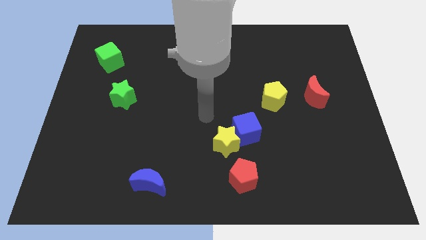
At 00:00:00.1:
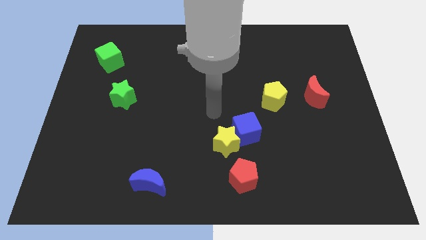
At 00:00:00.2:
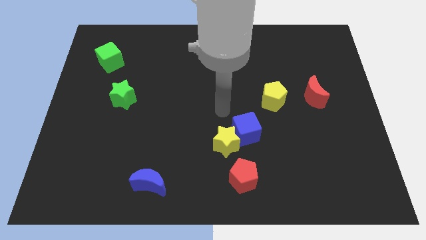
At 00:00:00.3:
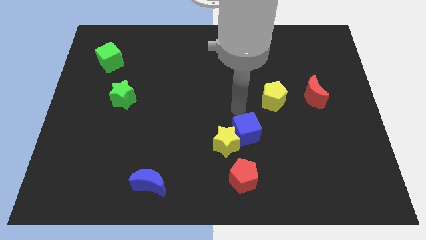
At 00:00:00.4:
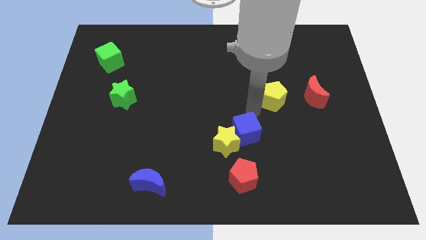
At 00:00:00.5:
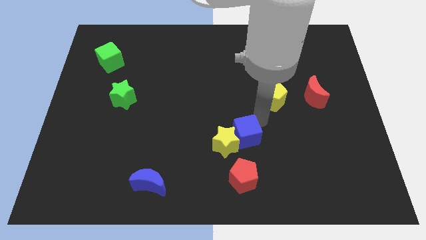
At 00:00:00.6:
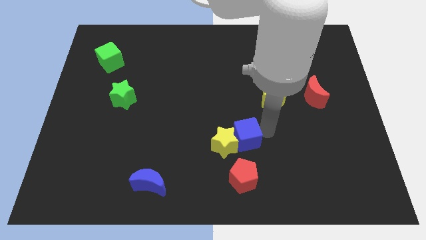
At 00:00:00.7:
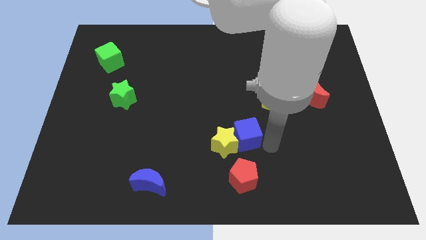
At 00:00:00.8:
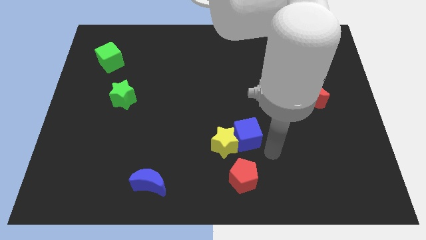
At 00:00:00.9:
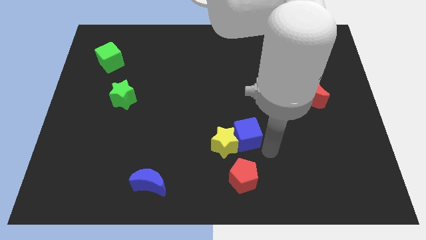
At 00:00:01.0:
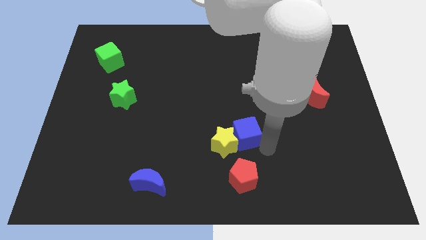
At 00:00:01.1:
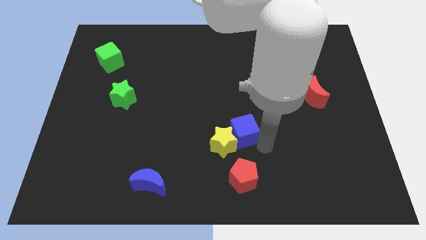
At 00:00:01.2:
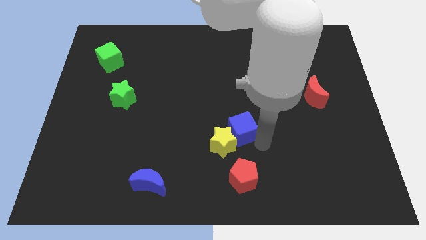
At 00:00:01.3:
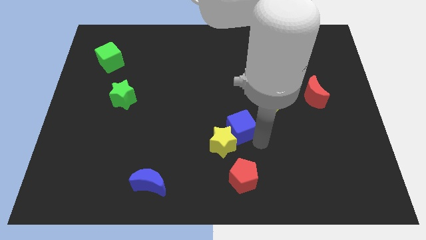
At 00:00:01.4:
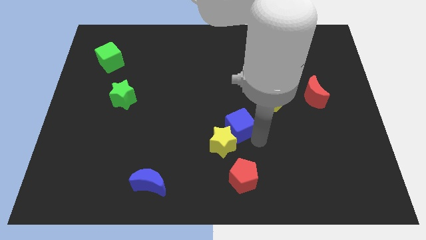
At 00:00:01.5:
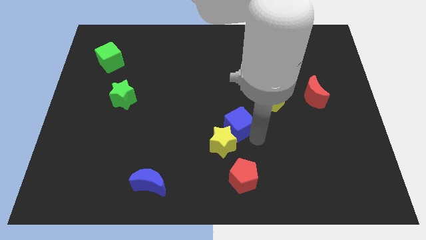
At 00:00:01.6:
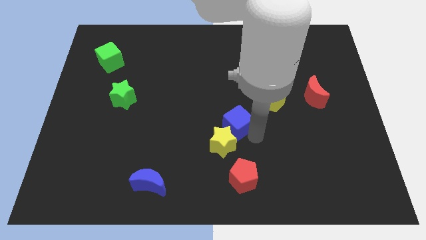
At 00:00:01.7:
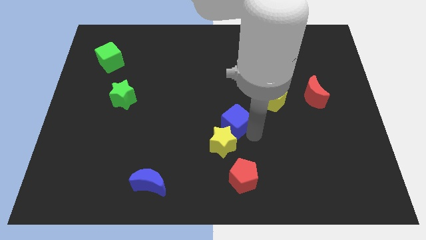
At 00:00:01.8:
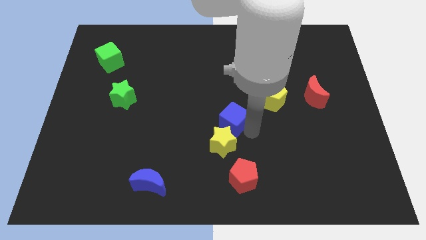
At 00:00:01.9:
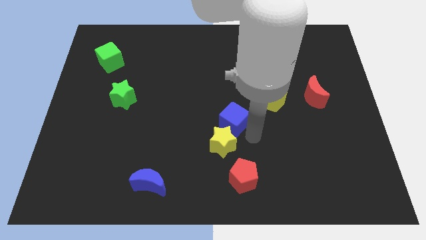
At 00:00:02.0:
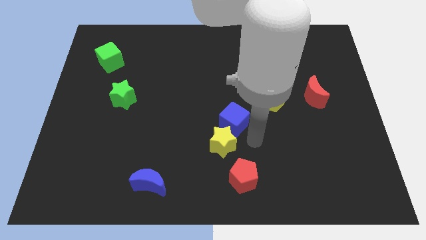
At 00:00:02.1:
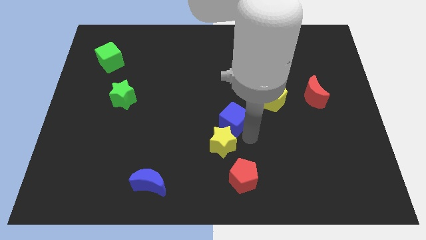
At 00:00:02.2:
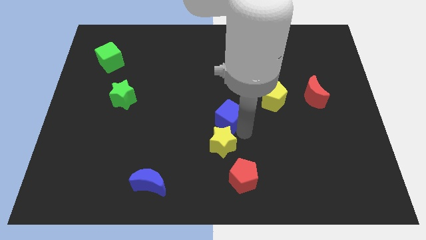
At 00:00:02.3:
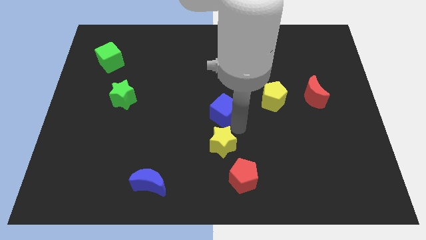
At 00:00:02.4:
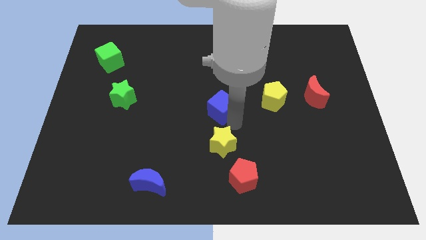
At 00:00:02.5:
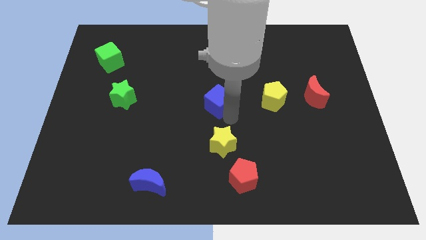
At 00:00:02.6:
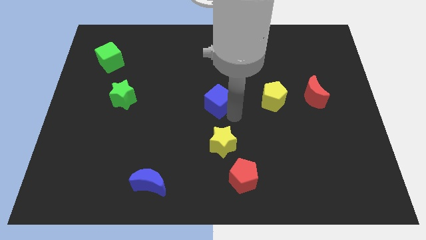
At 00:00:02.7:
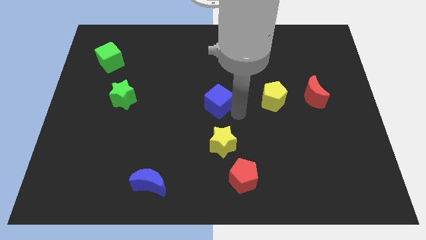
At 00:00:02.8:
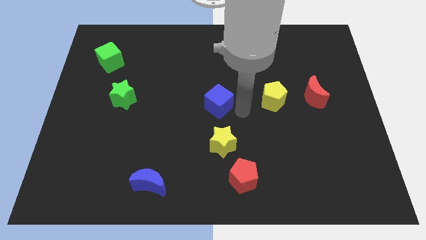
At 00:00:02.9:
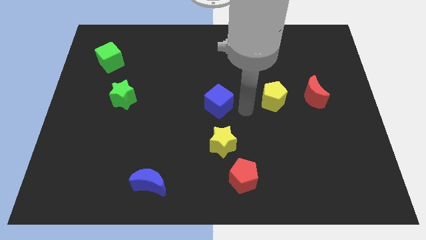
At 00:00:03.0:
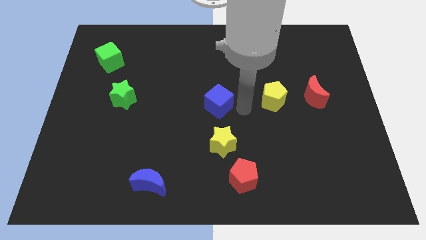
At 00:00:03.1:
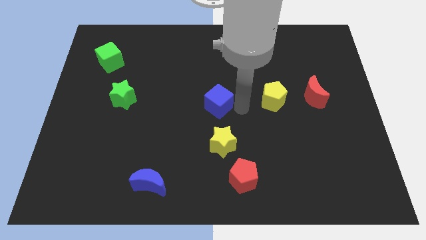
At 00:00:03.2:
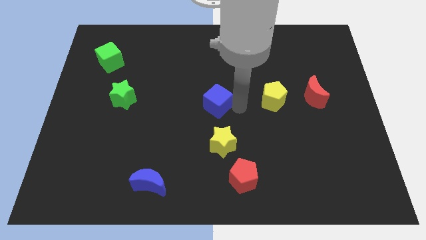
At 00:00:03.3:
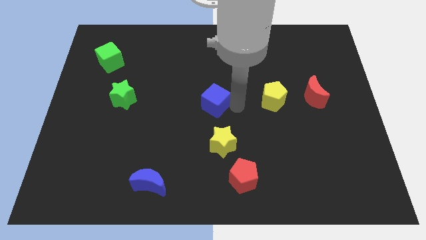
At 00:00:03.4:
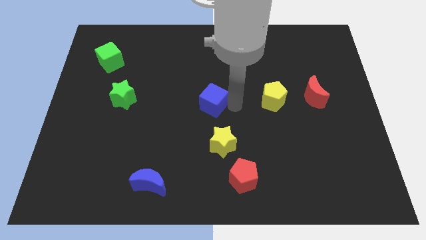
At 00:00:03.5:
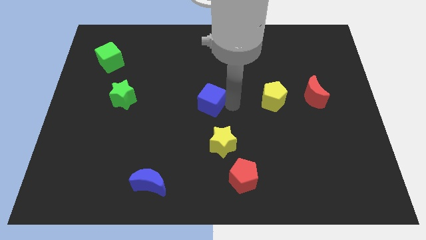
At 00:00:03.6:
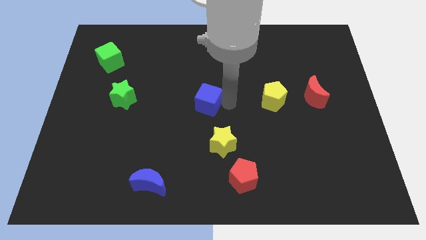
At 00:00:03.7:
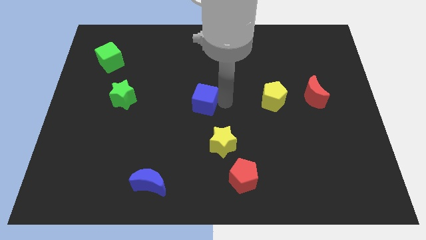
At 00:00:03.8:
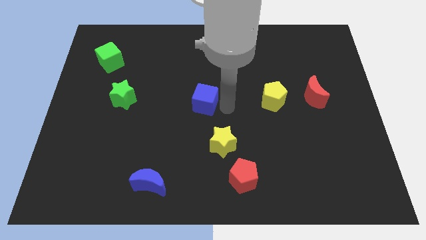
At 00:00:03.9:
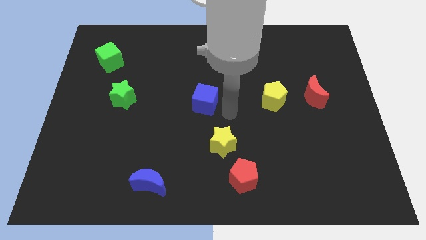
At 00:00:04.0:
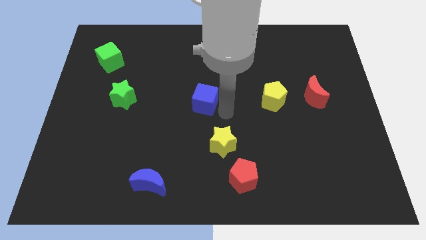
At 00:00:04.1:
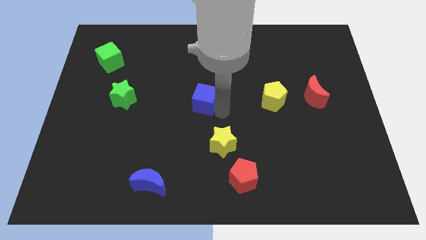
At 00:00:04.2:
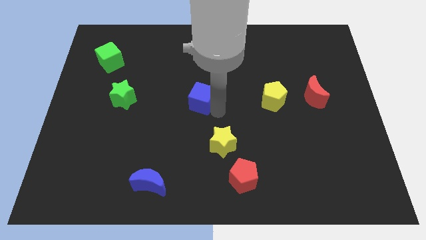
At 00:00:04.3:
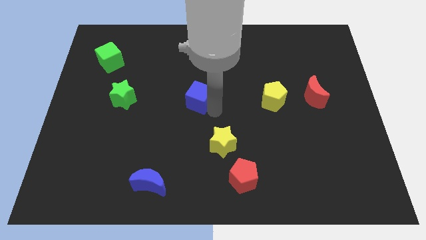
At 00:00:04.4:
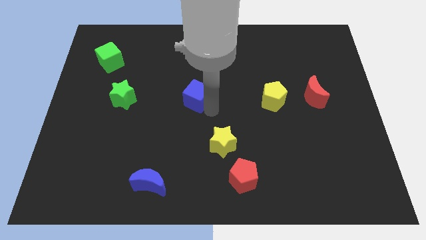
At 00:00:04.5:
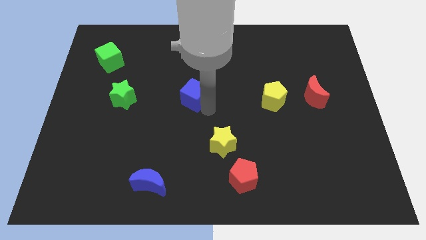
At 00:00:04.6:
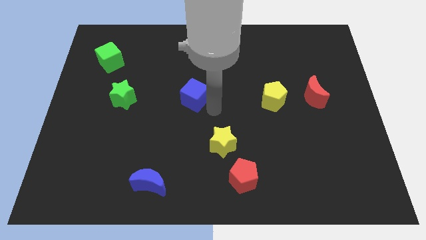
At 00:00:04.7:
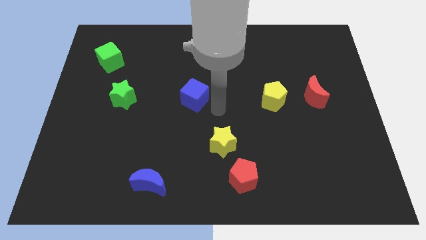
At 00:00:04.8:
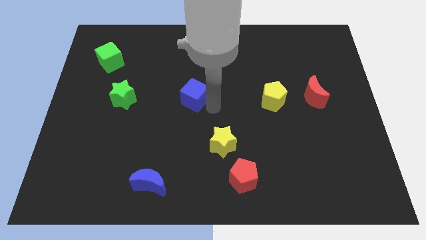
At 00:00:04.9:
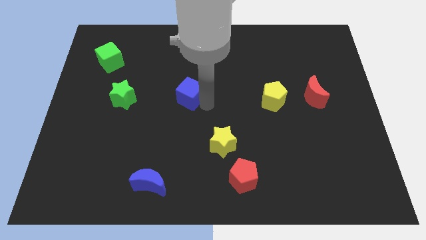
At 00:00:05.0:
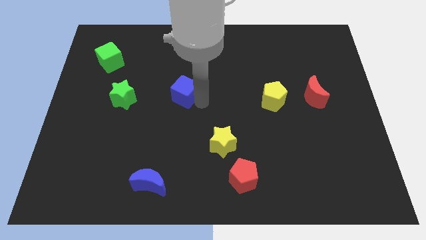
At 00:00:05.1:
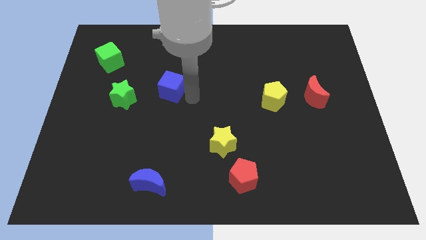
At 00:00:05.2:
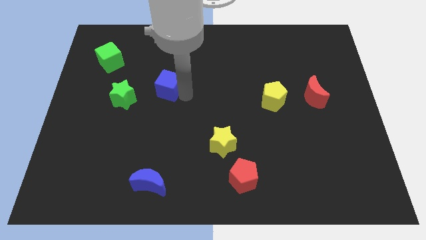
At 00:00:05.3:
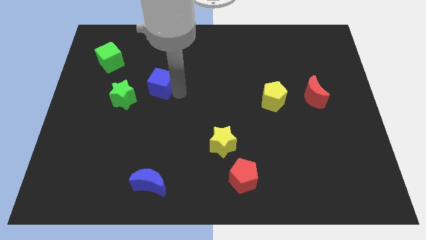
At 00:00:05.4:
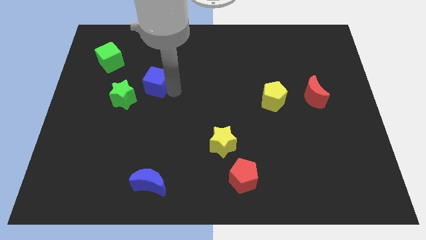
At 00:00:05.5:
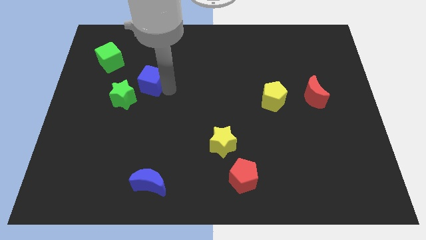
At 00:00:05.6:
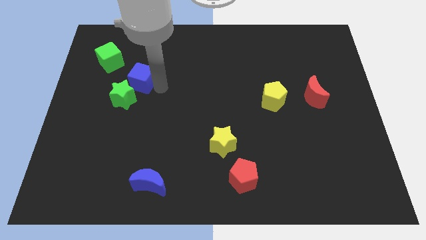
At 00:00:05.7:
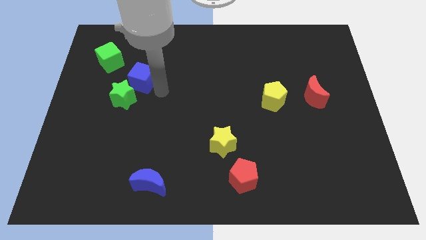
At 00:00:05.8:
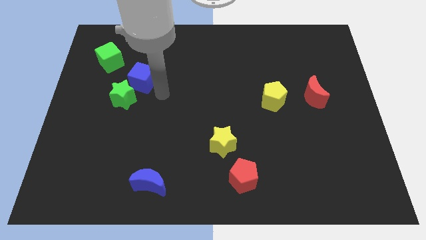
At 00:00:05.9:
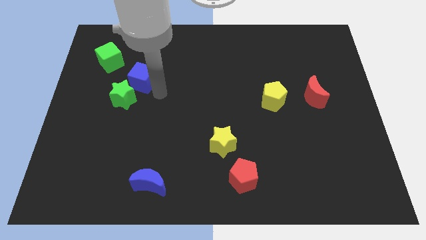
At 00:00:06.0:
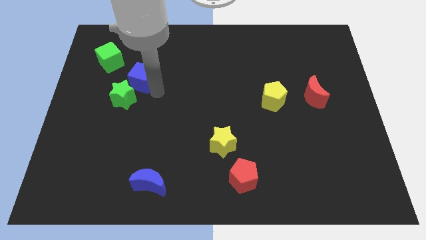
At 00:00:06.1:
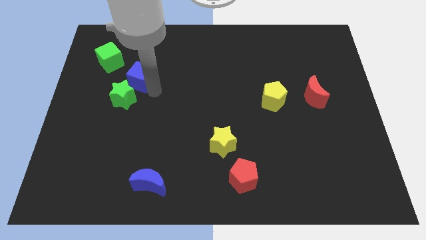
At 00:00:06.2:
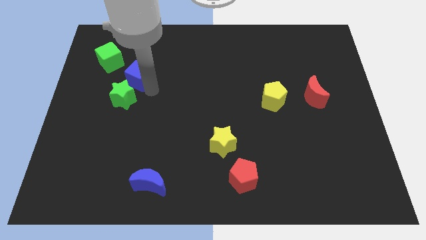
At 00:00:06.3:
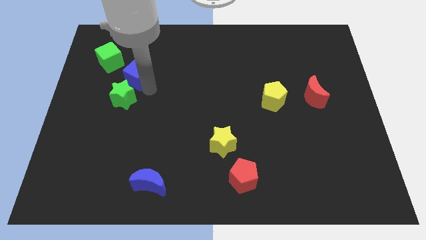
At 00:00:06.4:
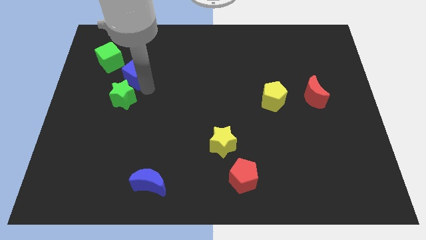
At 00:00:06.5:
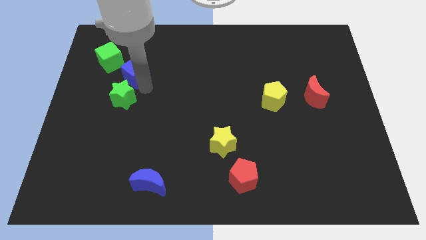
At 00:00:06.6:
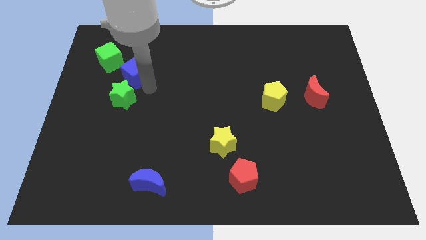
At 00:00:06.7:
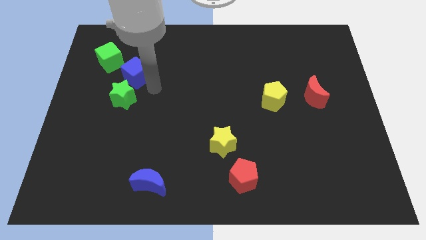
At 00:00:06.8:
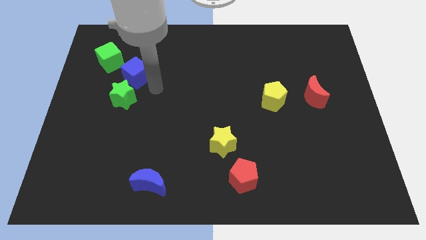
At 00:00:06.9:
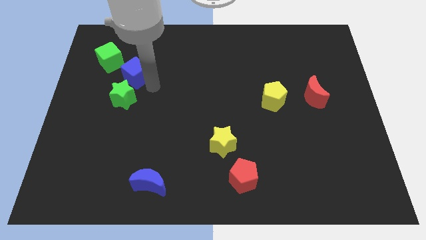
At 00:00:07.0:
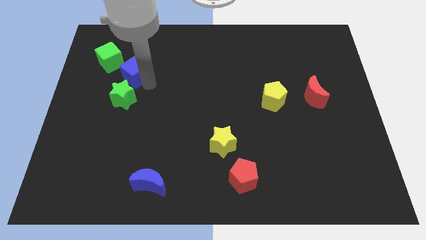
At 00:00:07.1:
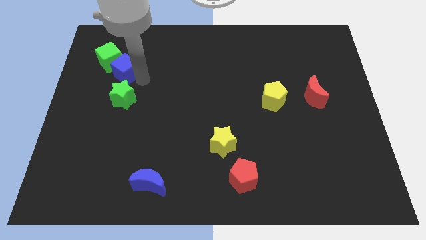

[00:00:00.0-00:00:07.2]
put the blue cube to the green cube
